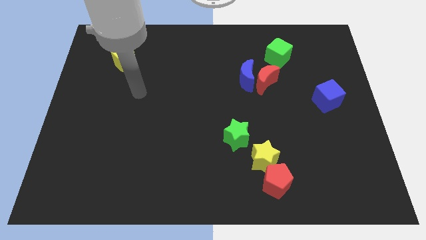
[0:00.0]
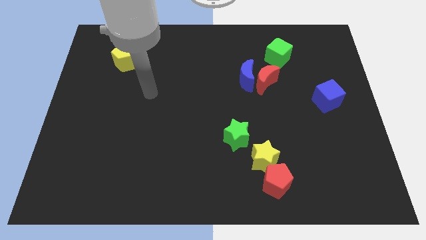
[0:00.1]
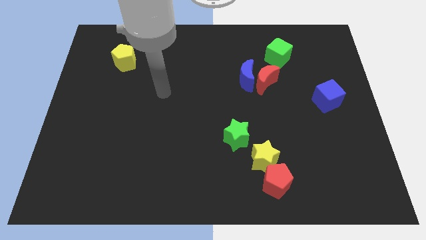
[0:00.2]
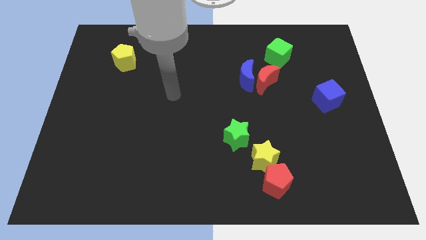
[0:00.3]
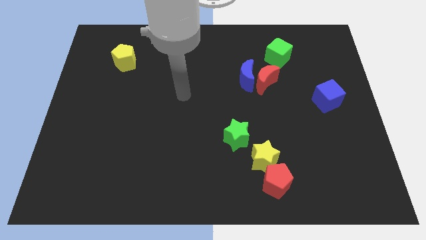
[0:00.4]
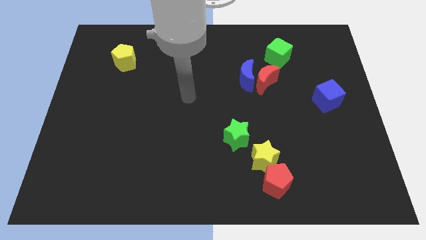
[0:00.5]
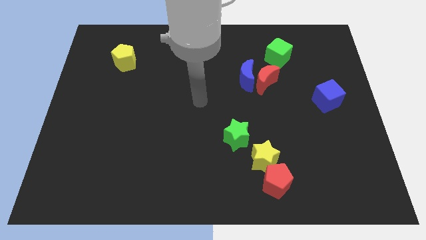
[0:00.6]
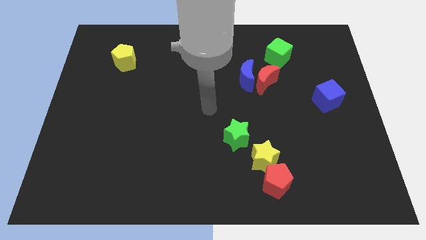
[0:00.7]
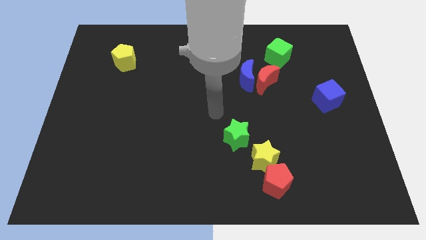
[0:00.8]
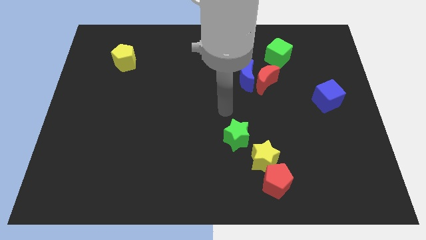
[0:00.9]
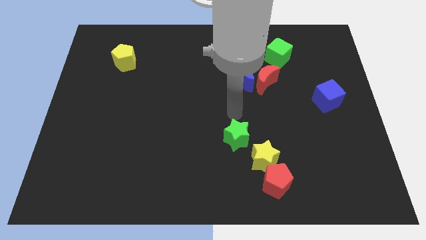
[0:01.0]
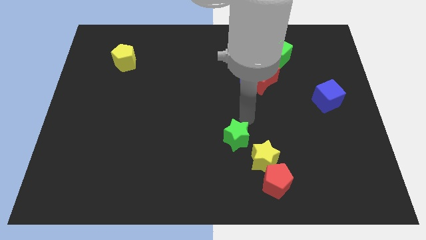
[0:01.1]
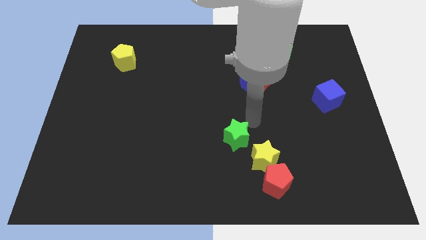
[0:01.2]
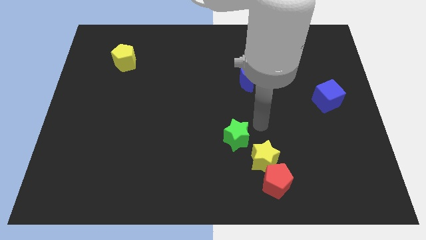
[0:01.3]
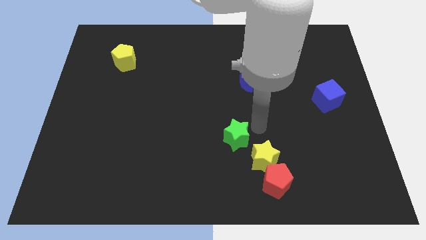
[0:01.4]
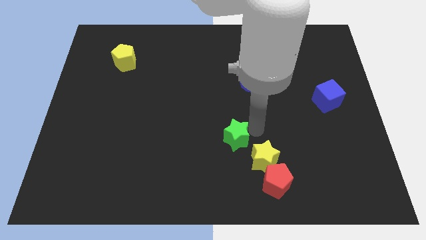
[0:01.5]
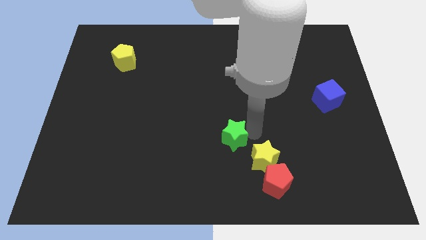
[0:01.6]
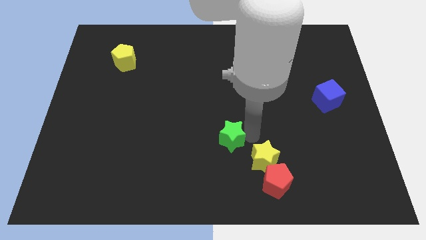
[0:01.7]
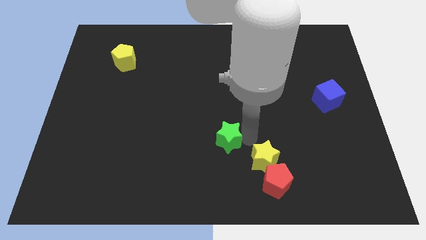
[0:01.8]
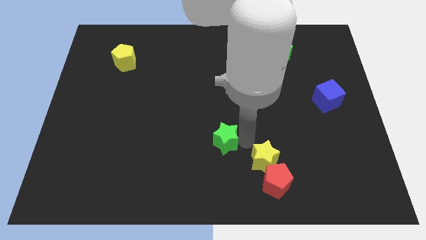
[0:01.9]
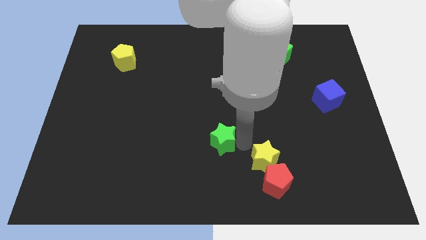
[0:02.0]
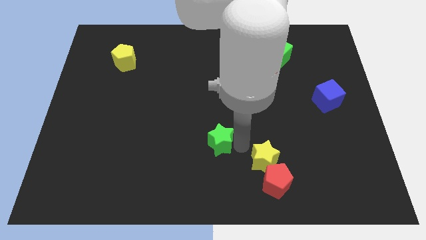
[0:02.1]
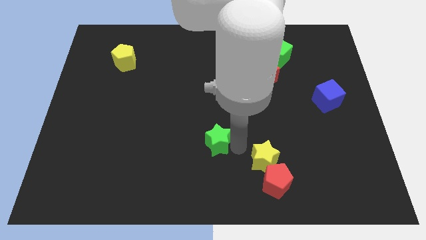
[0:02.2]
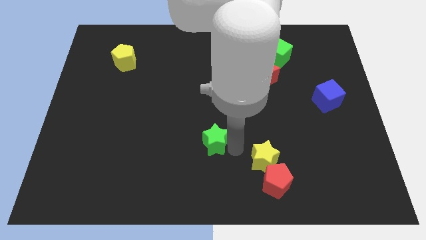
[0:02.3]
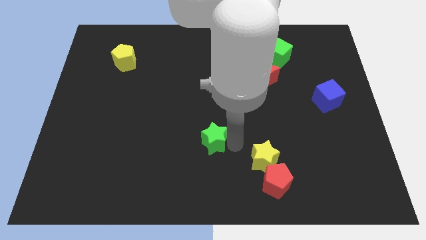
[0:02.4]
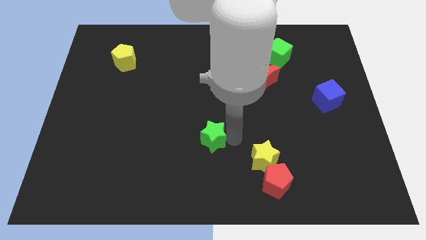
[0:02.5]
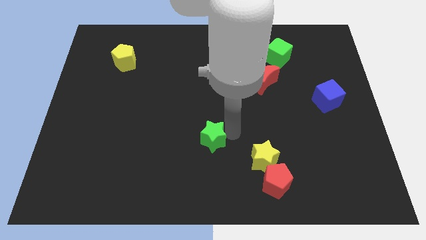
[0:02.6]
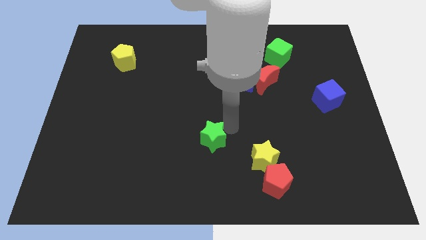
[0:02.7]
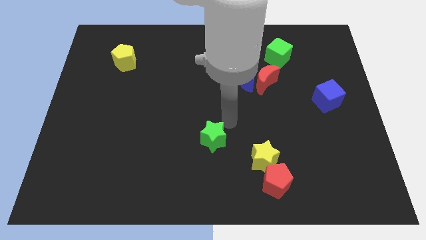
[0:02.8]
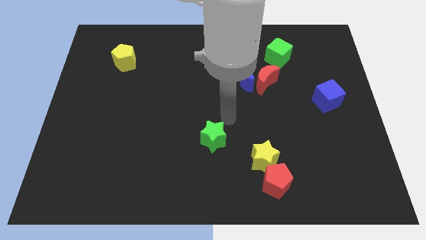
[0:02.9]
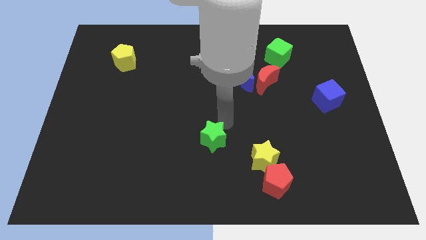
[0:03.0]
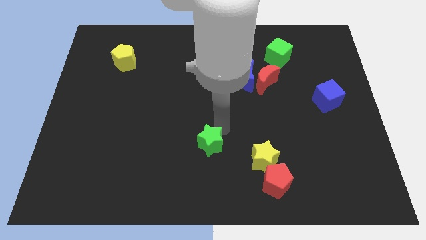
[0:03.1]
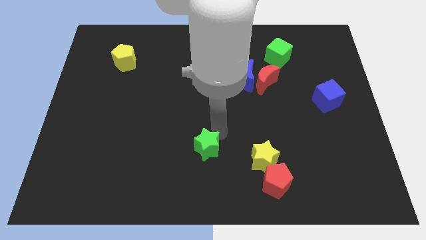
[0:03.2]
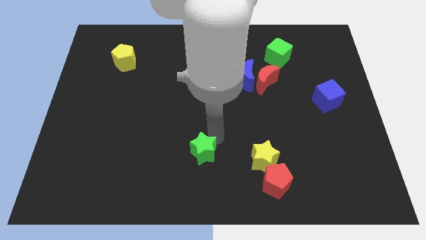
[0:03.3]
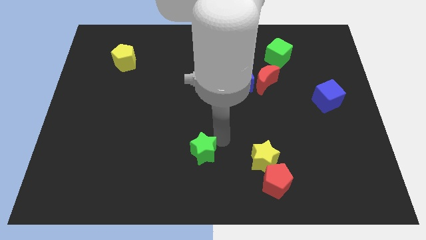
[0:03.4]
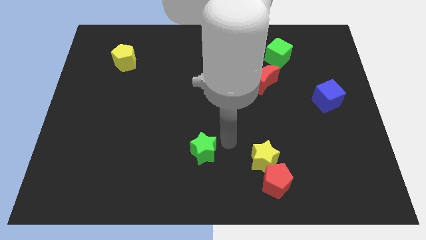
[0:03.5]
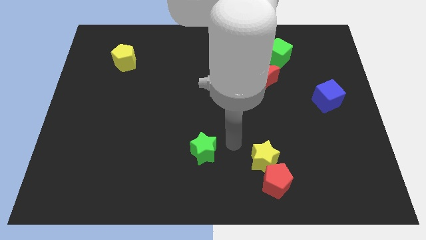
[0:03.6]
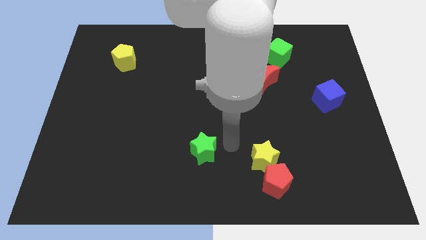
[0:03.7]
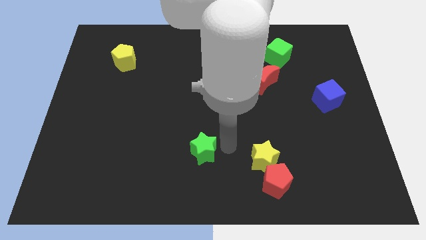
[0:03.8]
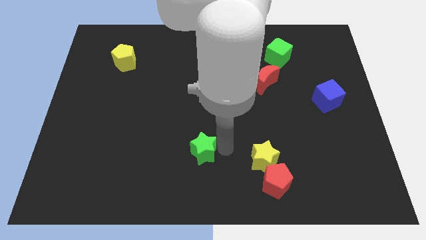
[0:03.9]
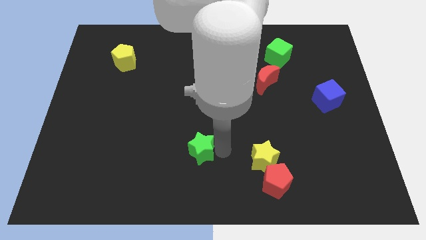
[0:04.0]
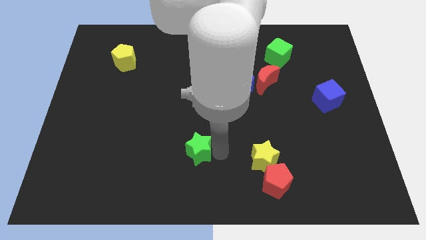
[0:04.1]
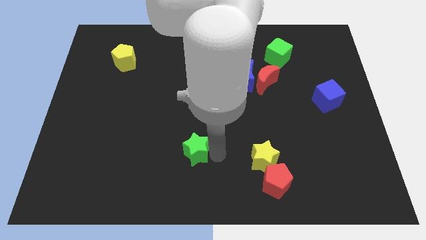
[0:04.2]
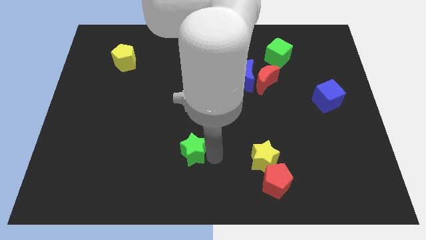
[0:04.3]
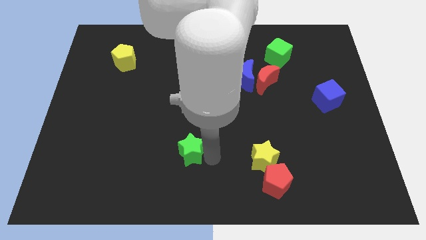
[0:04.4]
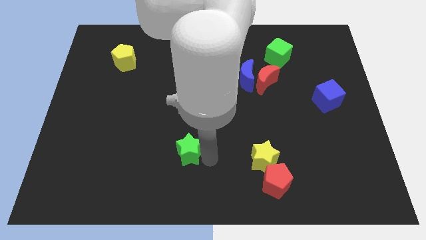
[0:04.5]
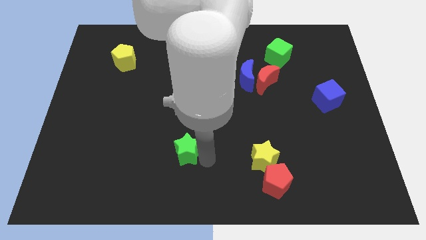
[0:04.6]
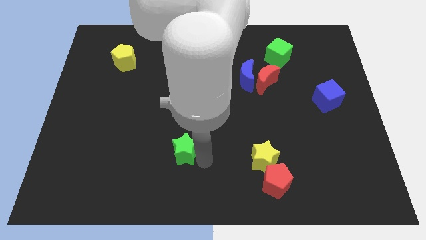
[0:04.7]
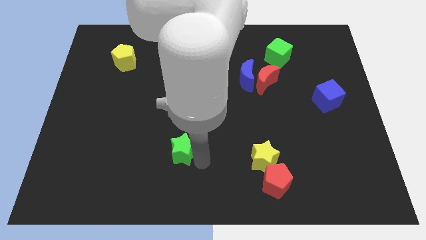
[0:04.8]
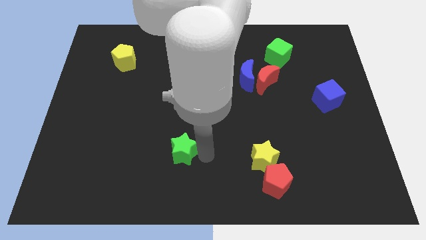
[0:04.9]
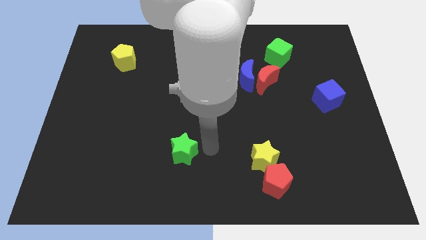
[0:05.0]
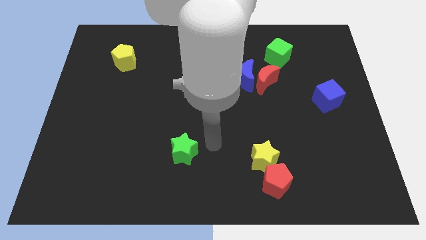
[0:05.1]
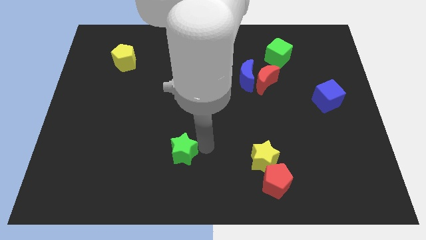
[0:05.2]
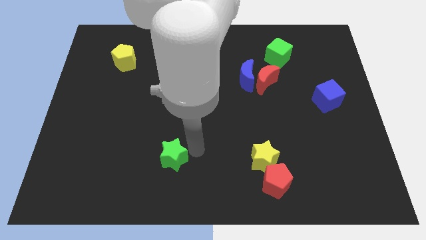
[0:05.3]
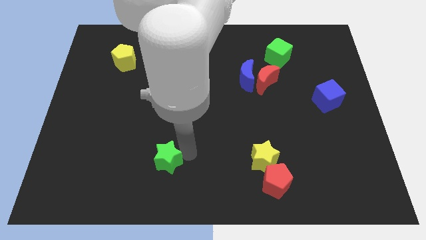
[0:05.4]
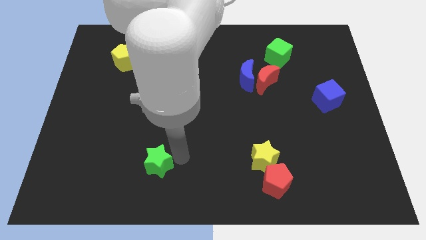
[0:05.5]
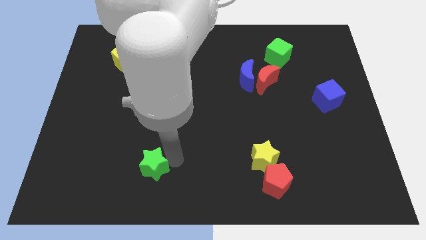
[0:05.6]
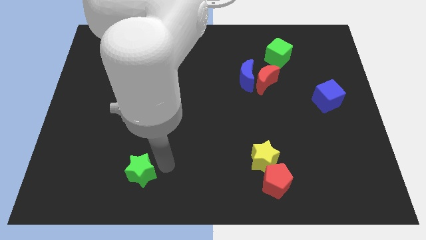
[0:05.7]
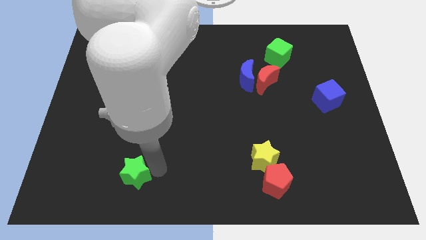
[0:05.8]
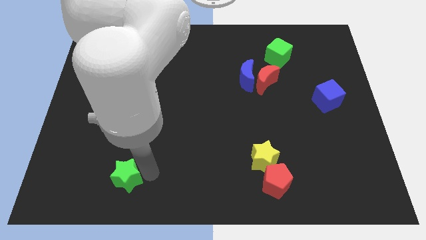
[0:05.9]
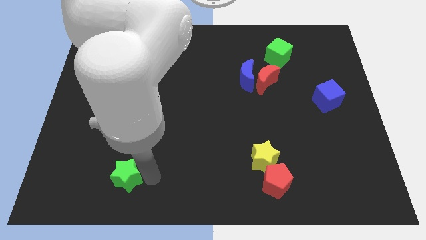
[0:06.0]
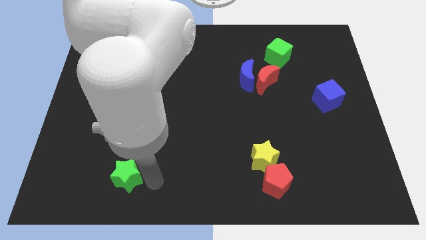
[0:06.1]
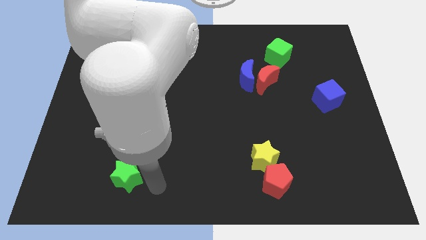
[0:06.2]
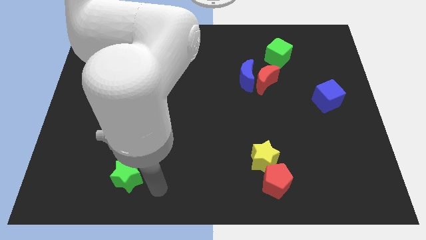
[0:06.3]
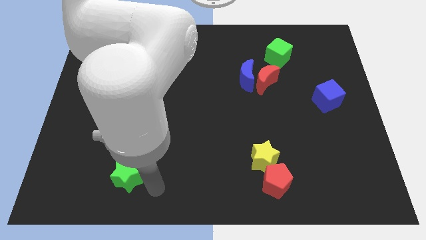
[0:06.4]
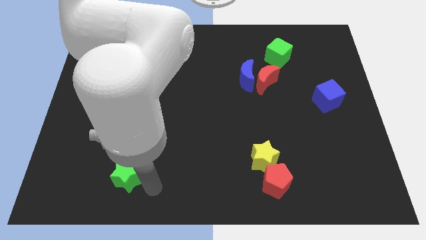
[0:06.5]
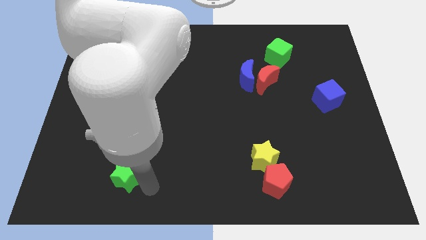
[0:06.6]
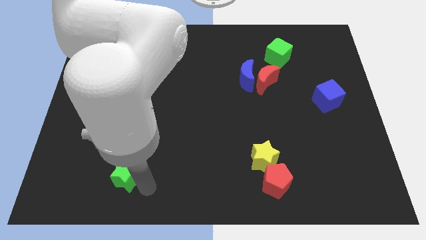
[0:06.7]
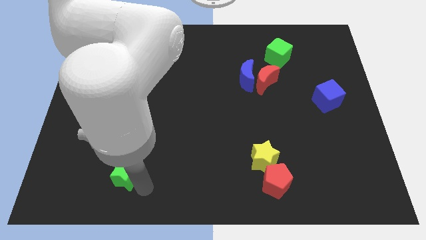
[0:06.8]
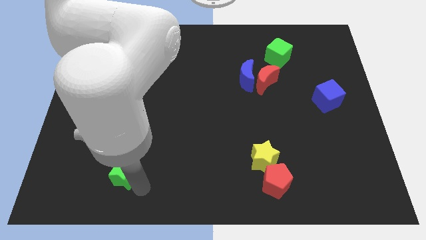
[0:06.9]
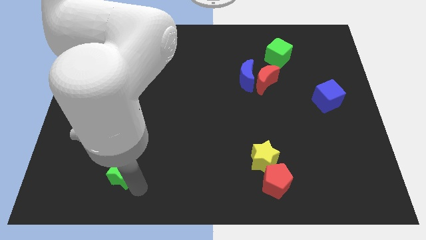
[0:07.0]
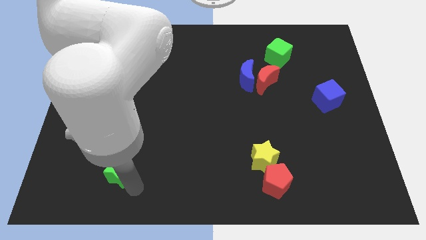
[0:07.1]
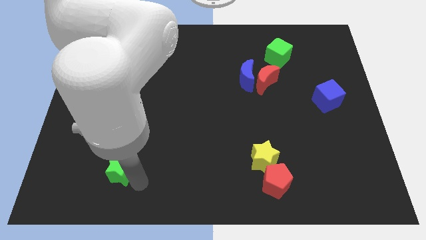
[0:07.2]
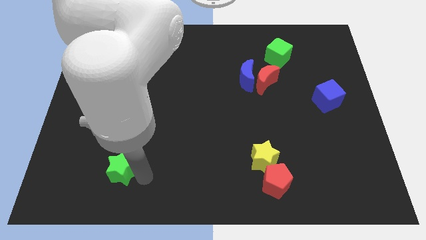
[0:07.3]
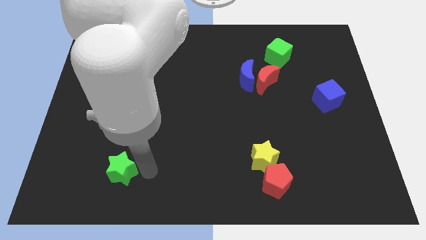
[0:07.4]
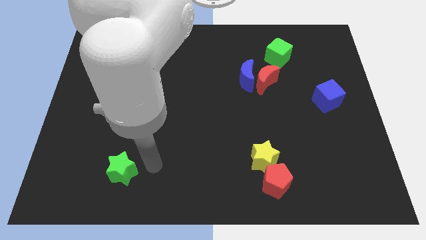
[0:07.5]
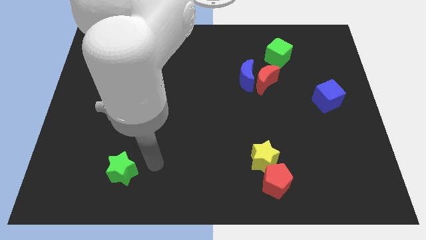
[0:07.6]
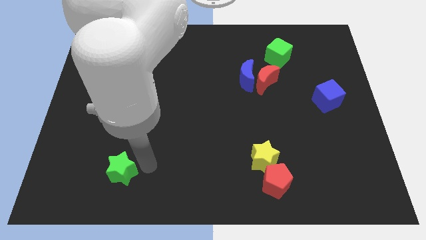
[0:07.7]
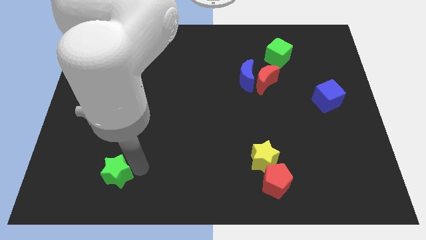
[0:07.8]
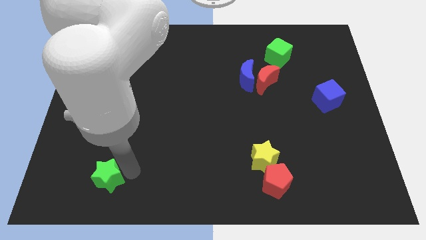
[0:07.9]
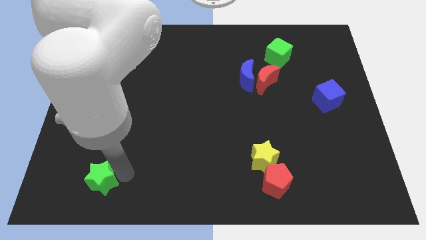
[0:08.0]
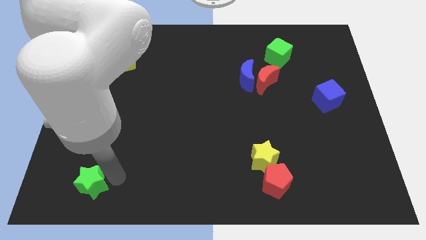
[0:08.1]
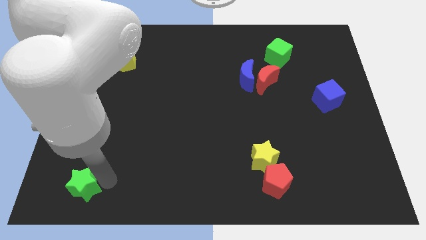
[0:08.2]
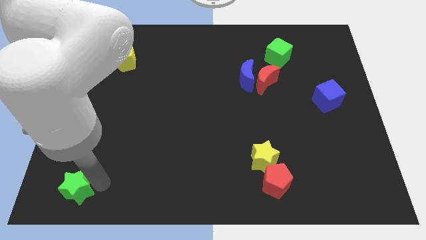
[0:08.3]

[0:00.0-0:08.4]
slide the green star to the bottom left of the board
